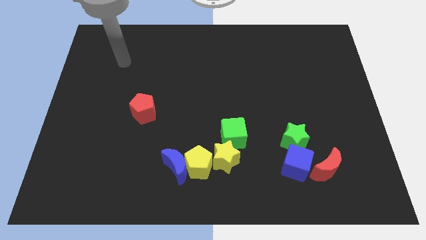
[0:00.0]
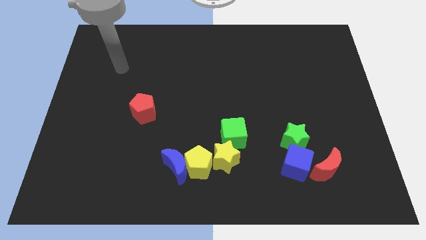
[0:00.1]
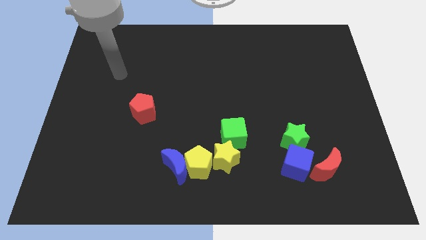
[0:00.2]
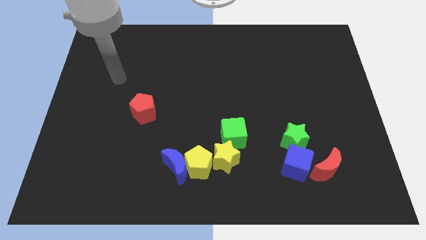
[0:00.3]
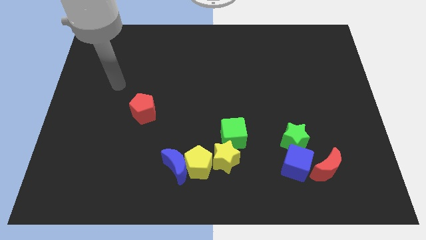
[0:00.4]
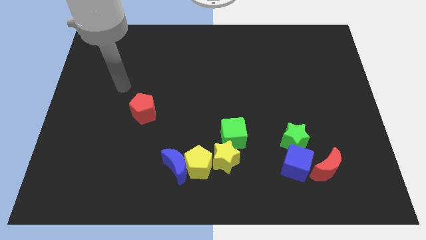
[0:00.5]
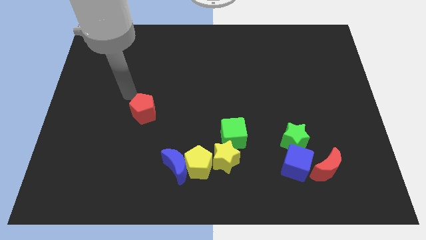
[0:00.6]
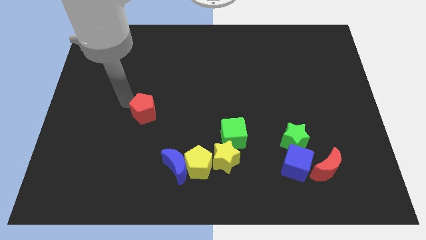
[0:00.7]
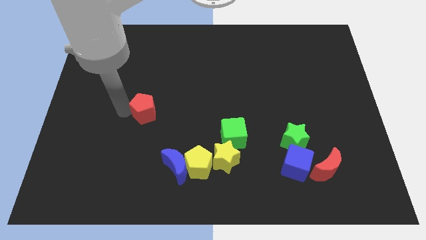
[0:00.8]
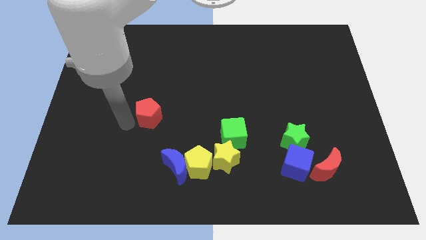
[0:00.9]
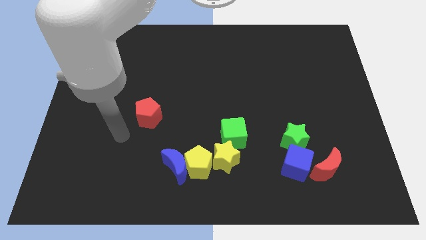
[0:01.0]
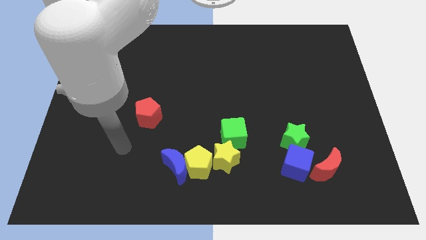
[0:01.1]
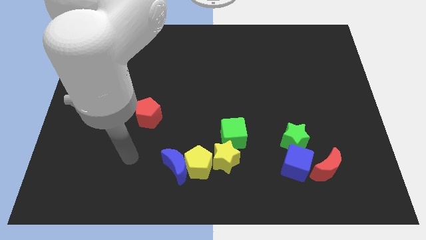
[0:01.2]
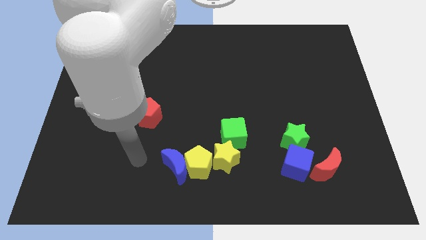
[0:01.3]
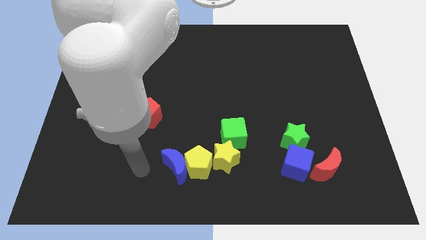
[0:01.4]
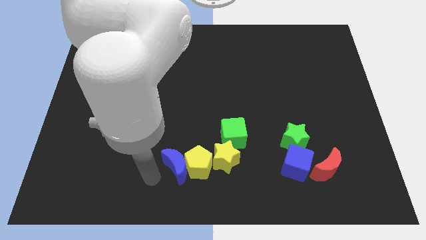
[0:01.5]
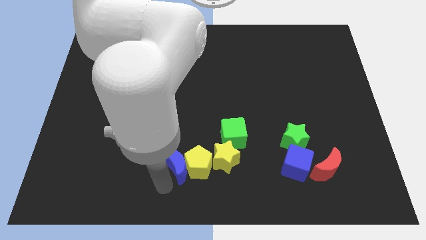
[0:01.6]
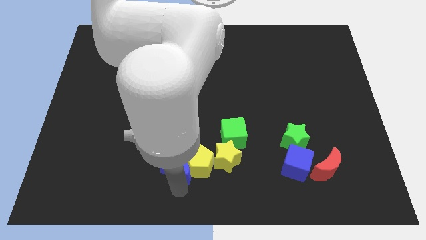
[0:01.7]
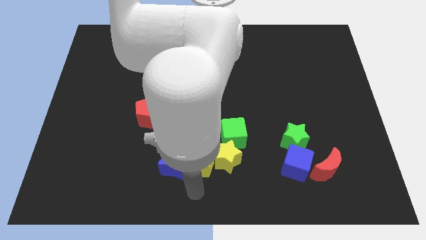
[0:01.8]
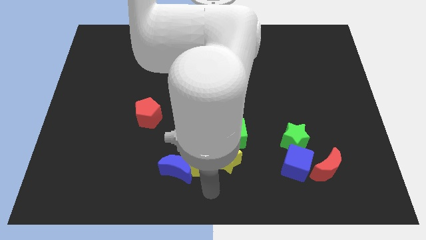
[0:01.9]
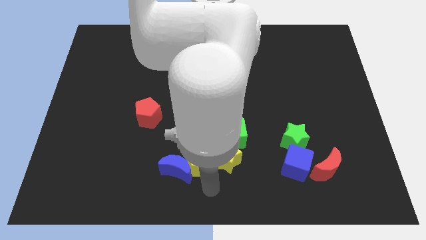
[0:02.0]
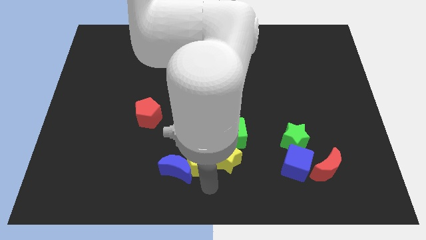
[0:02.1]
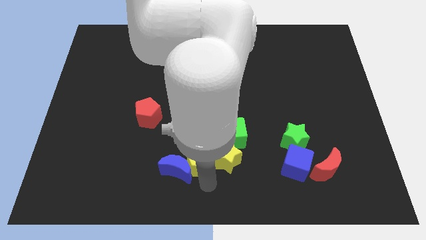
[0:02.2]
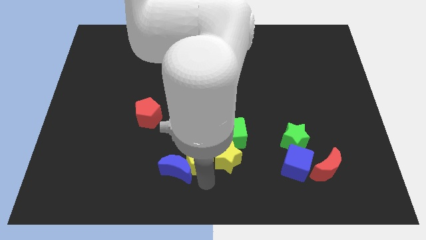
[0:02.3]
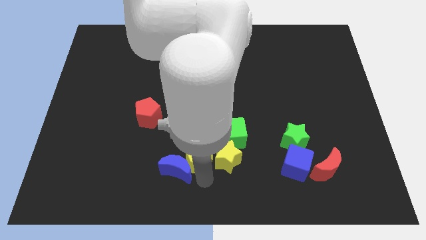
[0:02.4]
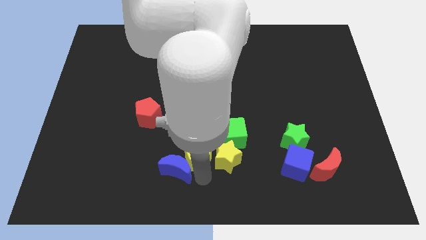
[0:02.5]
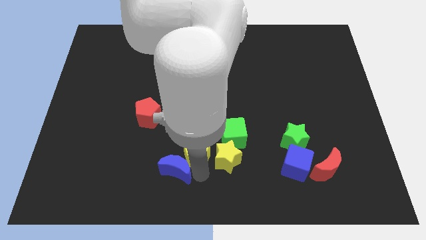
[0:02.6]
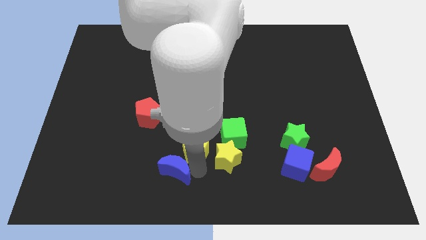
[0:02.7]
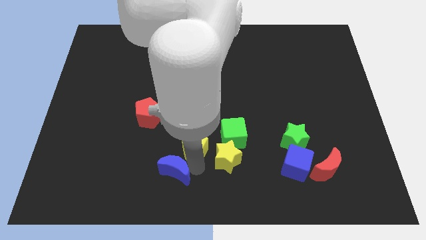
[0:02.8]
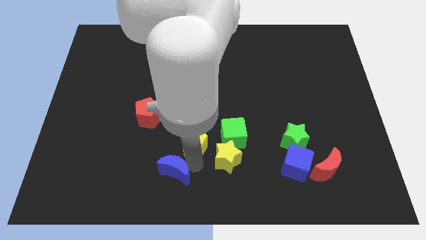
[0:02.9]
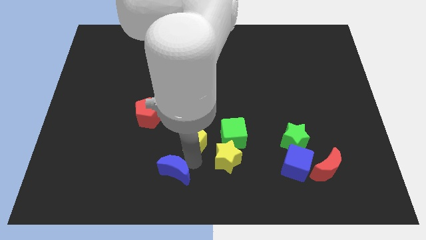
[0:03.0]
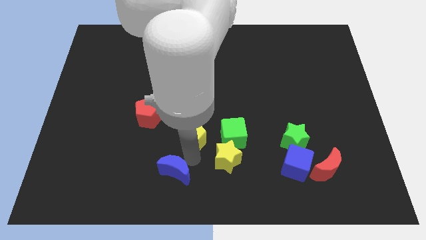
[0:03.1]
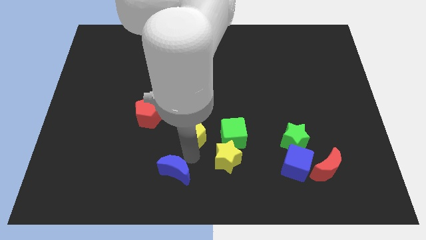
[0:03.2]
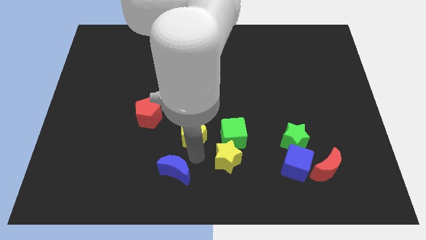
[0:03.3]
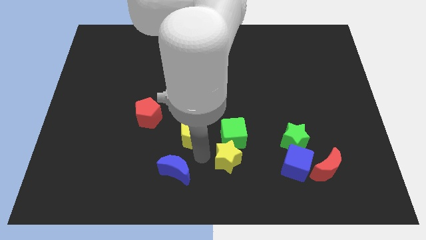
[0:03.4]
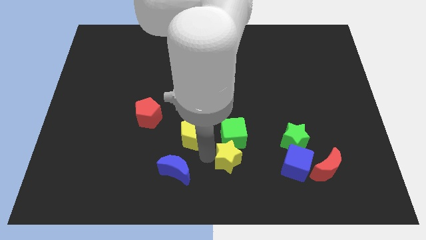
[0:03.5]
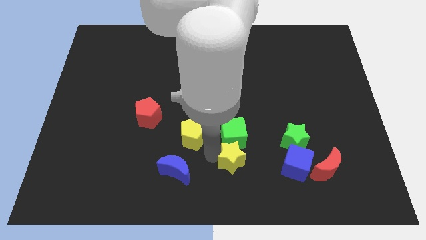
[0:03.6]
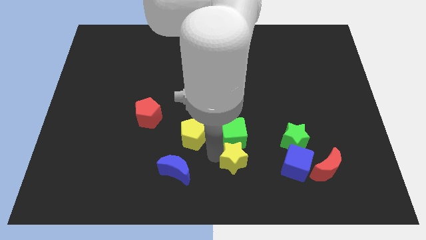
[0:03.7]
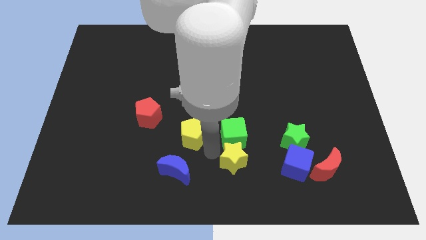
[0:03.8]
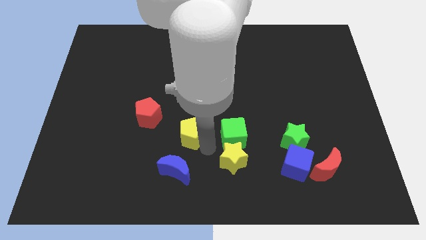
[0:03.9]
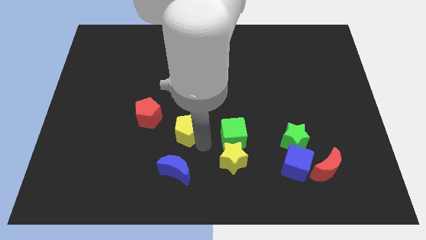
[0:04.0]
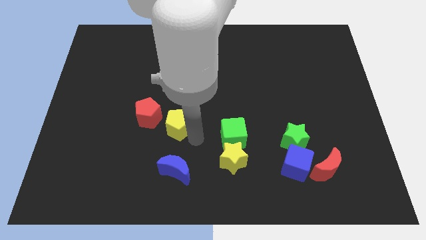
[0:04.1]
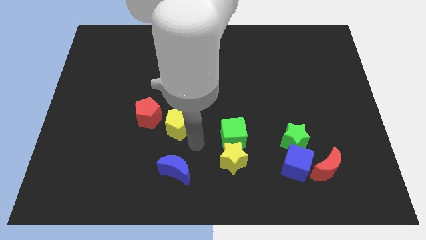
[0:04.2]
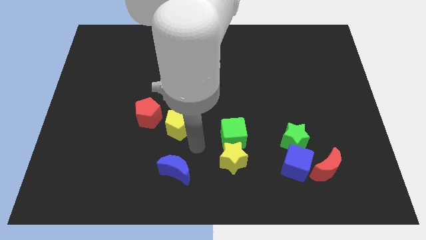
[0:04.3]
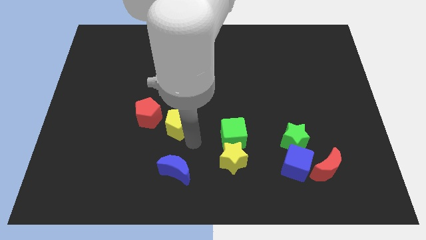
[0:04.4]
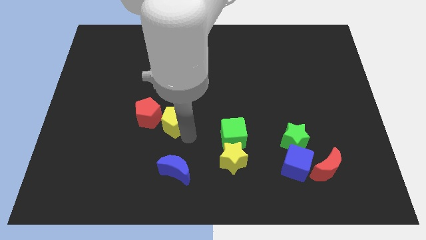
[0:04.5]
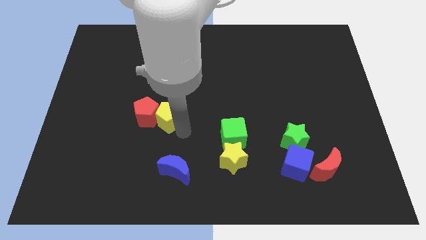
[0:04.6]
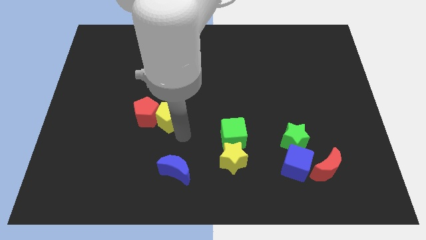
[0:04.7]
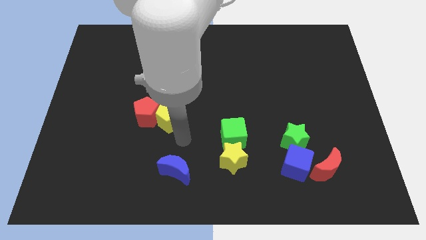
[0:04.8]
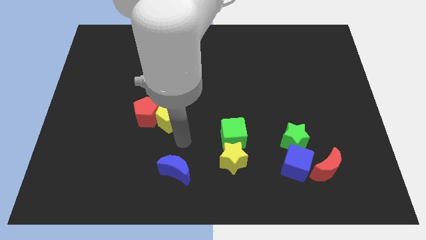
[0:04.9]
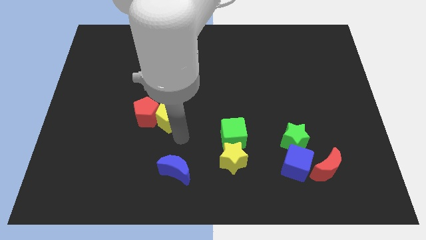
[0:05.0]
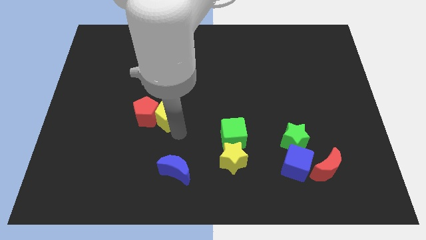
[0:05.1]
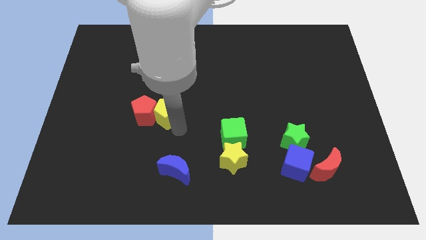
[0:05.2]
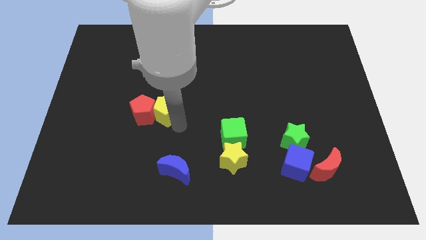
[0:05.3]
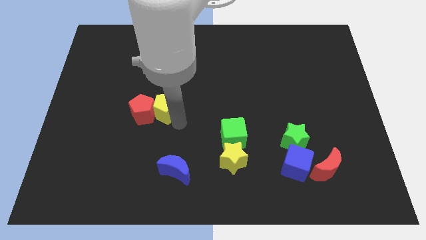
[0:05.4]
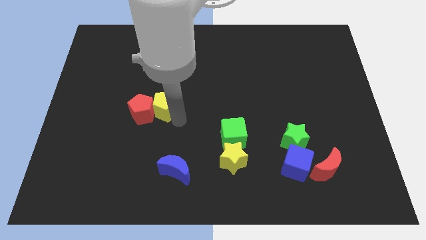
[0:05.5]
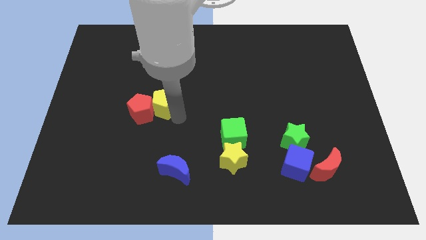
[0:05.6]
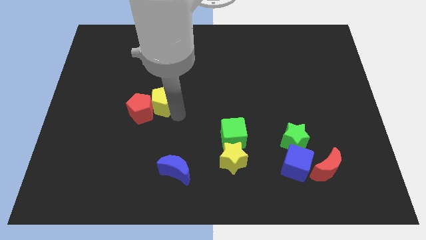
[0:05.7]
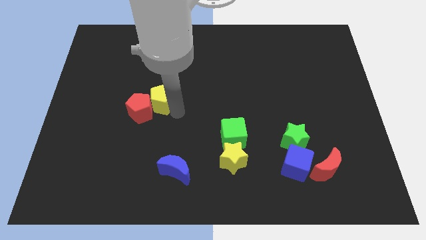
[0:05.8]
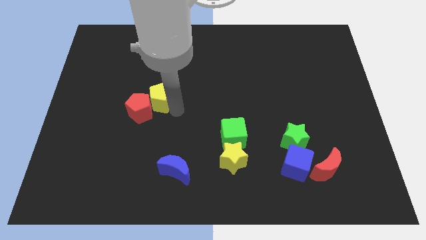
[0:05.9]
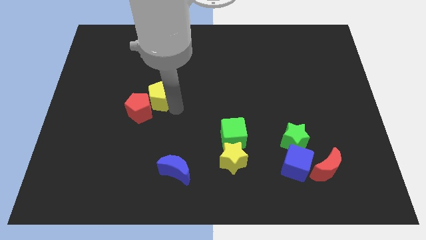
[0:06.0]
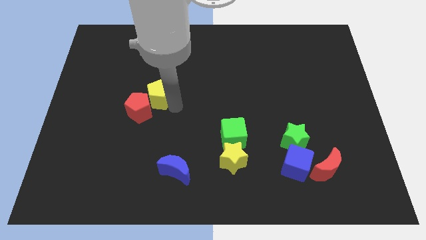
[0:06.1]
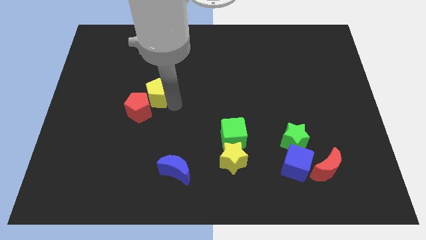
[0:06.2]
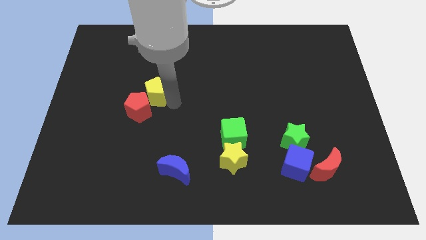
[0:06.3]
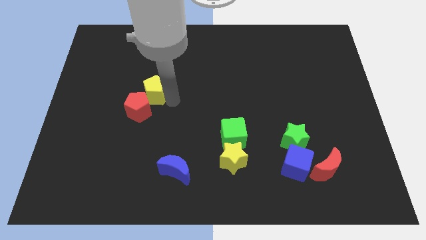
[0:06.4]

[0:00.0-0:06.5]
slide the yellow pentagon diagonally upwards and left

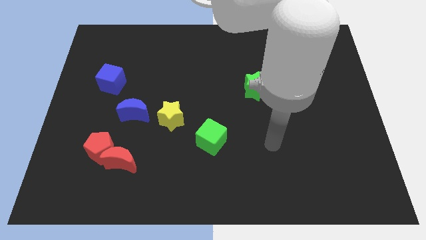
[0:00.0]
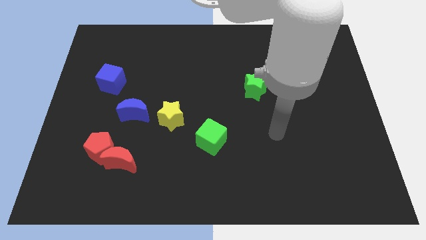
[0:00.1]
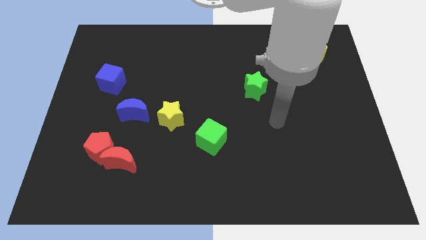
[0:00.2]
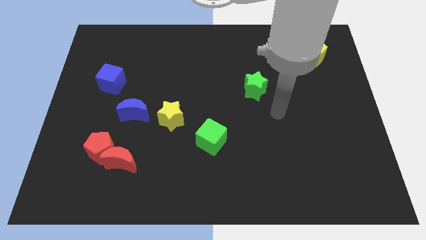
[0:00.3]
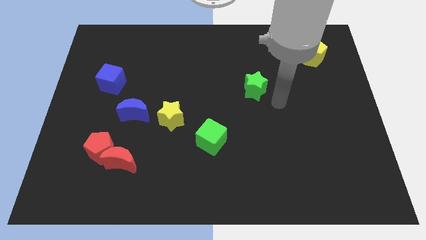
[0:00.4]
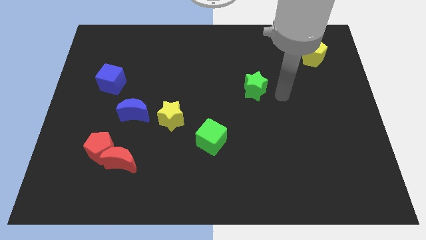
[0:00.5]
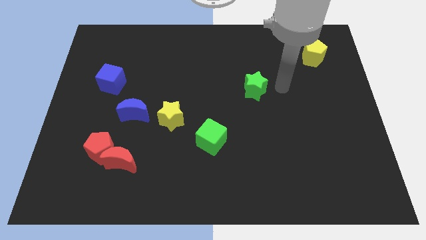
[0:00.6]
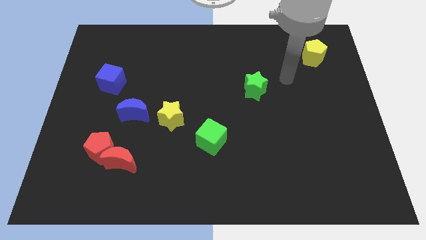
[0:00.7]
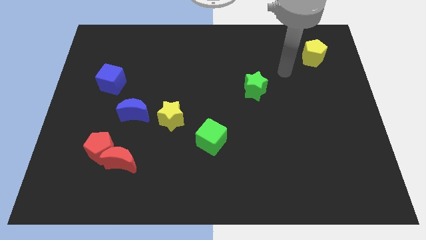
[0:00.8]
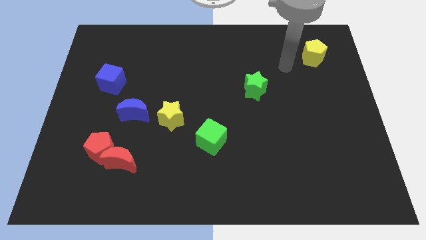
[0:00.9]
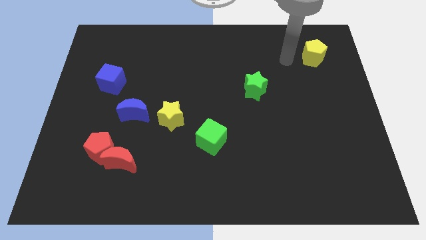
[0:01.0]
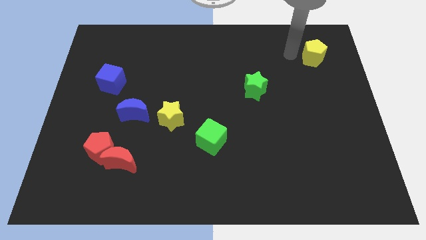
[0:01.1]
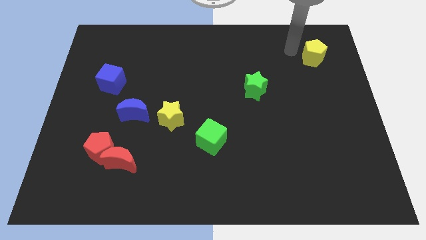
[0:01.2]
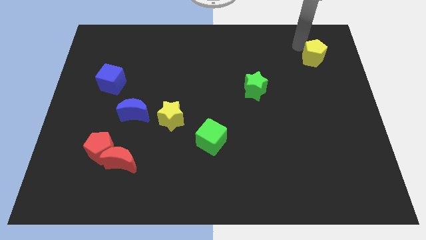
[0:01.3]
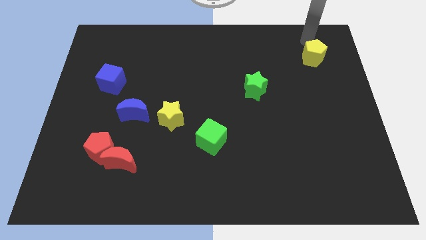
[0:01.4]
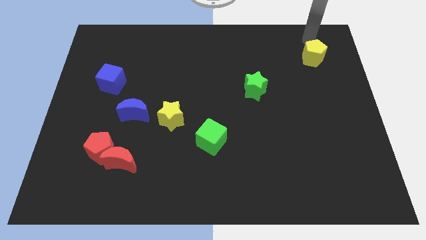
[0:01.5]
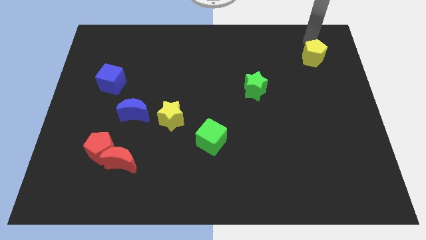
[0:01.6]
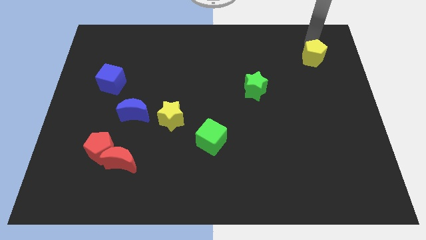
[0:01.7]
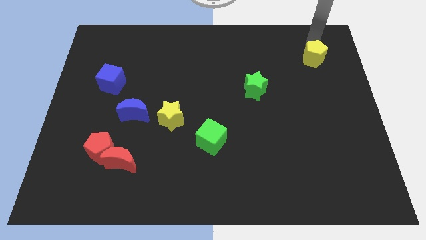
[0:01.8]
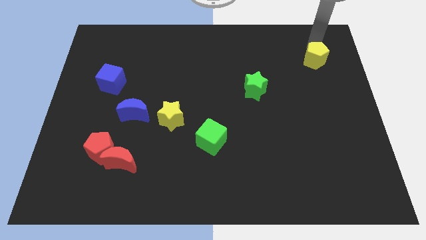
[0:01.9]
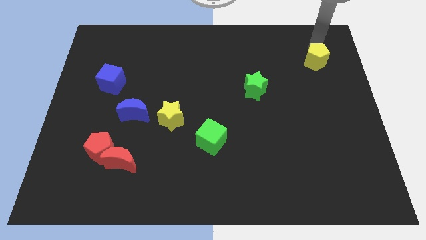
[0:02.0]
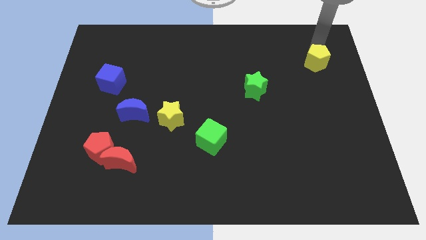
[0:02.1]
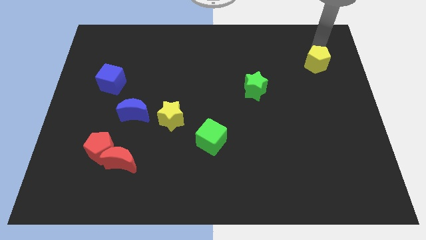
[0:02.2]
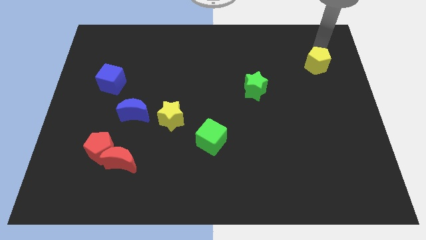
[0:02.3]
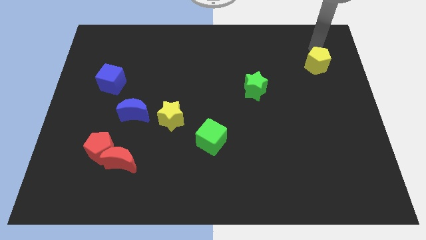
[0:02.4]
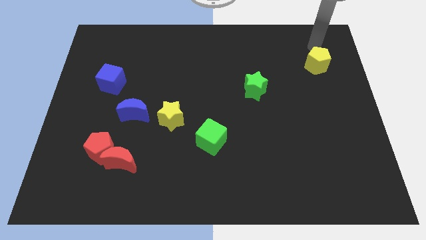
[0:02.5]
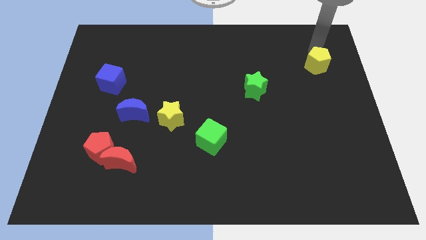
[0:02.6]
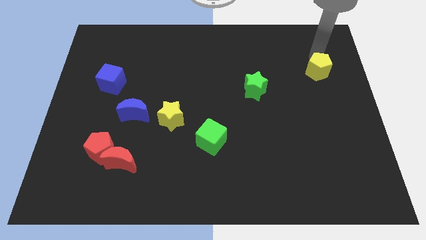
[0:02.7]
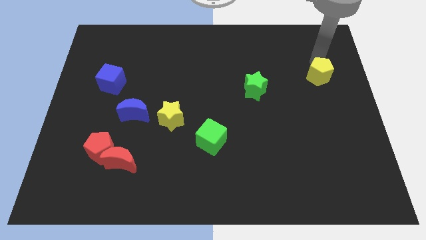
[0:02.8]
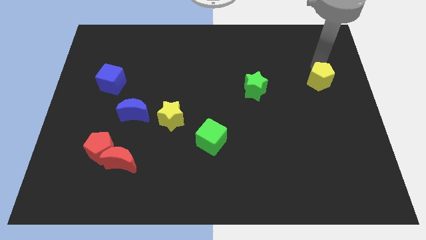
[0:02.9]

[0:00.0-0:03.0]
slightly push the yellow pentagon downwards
